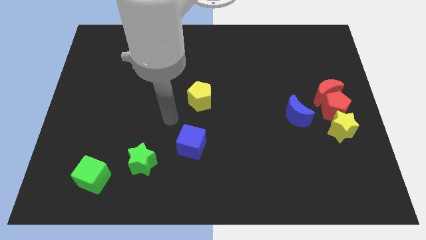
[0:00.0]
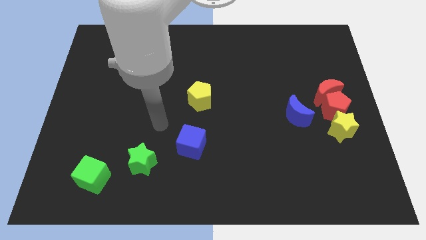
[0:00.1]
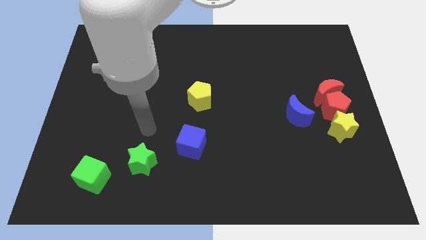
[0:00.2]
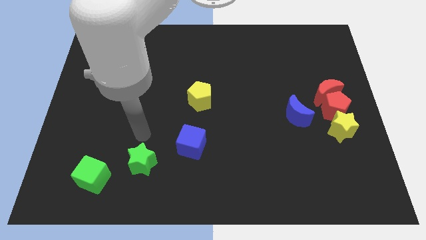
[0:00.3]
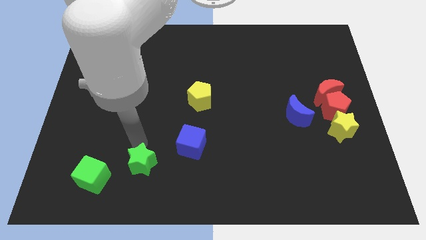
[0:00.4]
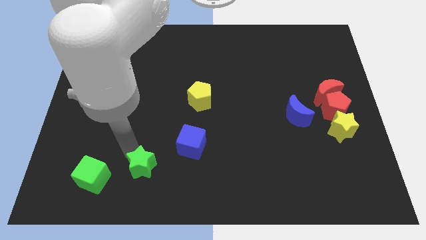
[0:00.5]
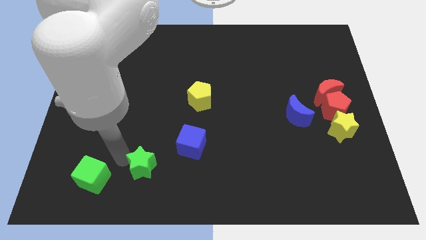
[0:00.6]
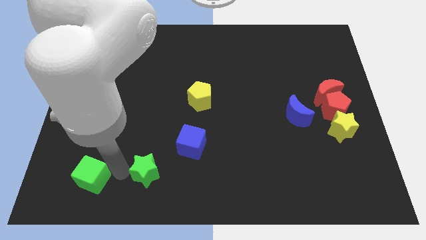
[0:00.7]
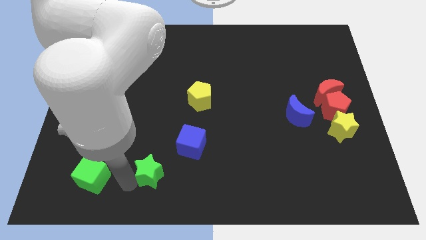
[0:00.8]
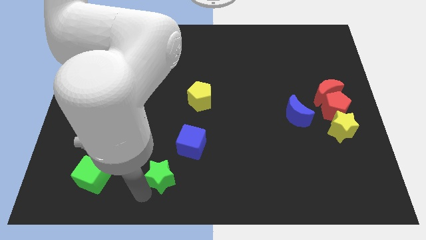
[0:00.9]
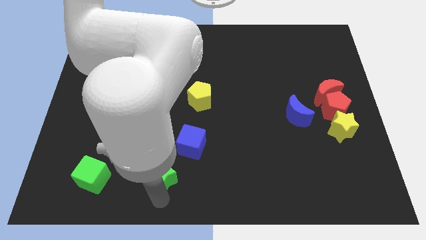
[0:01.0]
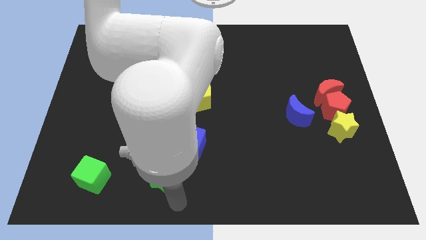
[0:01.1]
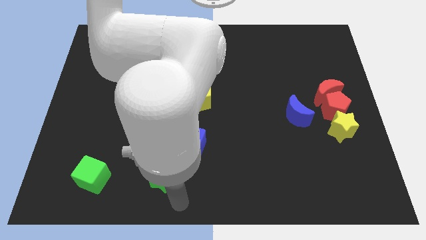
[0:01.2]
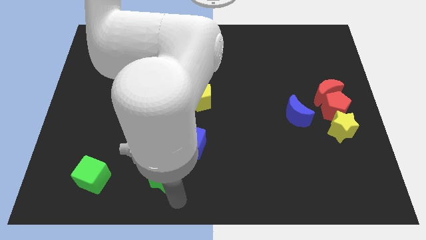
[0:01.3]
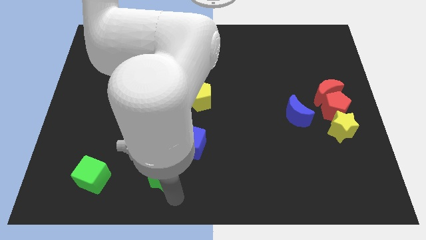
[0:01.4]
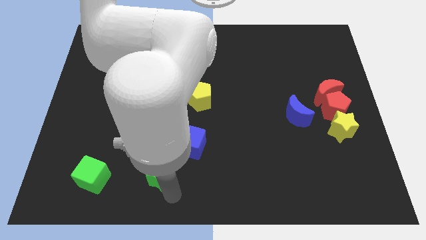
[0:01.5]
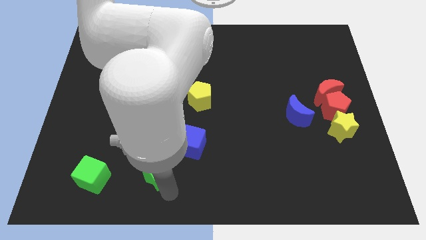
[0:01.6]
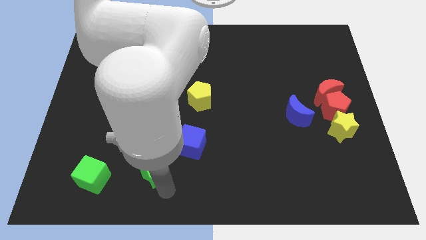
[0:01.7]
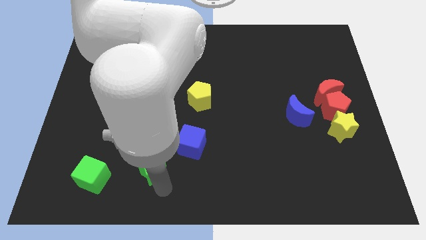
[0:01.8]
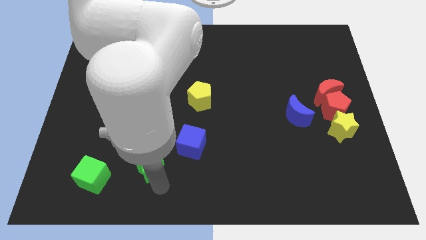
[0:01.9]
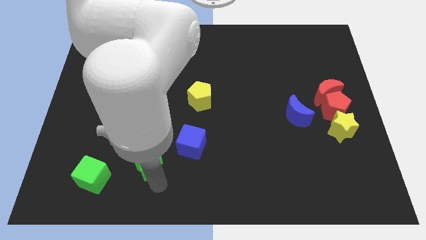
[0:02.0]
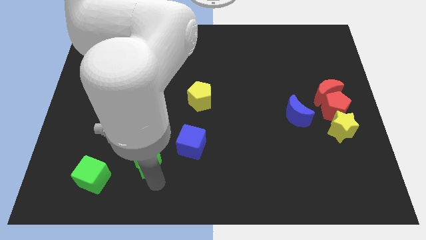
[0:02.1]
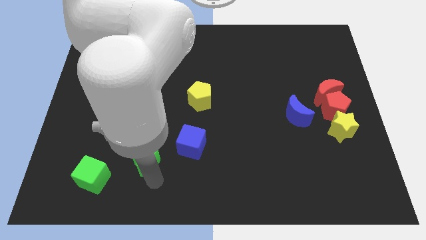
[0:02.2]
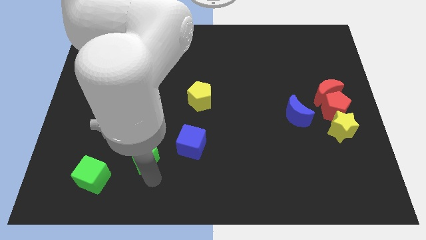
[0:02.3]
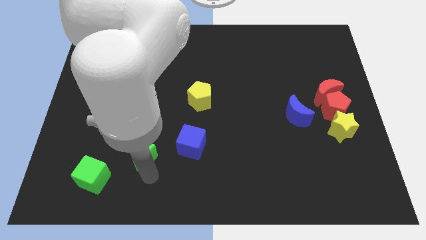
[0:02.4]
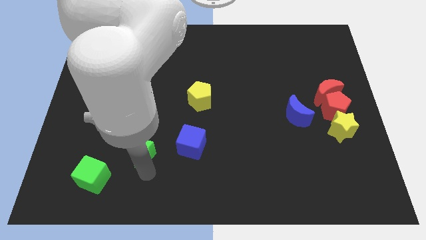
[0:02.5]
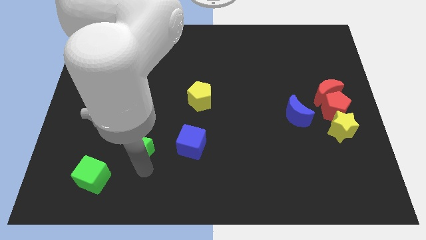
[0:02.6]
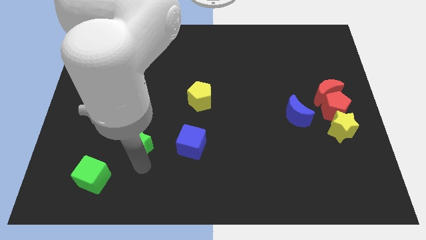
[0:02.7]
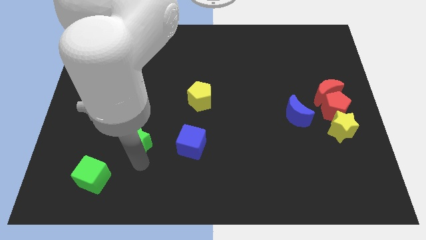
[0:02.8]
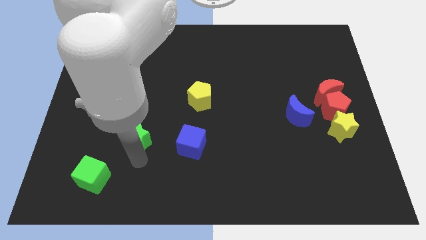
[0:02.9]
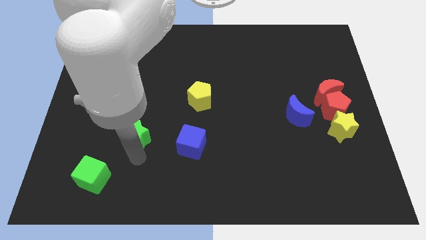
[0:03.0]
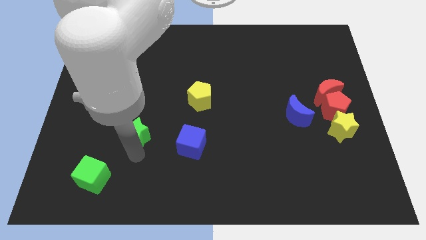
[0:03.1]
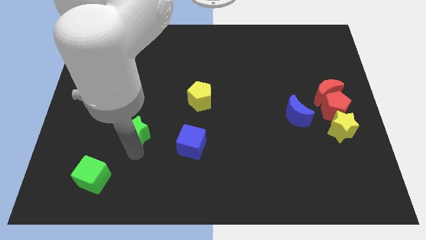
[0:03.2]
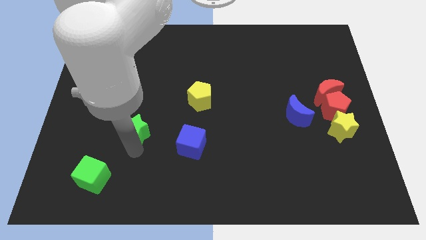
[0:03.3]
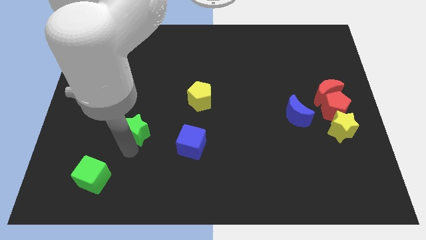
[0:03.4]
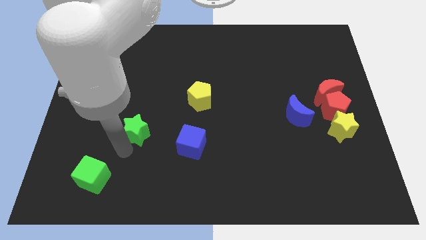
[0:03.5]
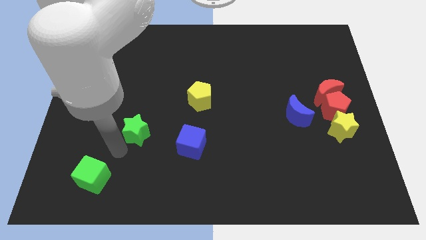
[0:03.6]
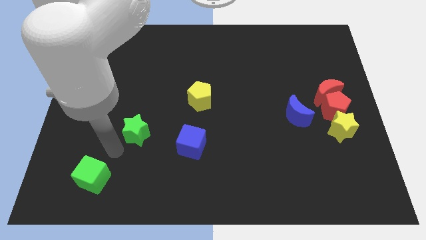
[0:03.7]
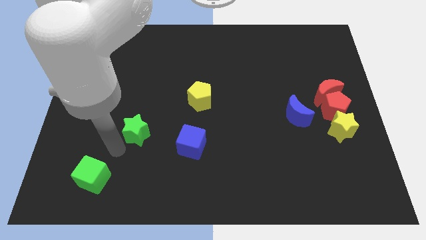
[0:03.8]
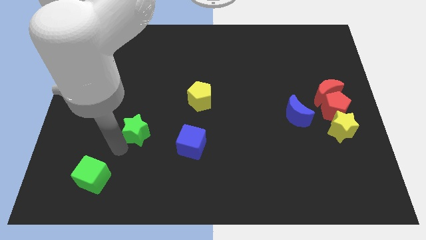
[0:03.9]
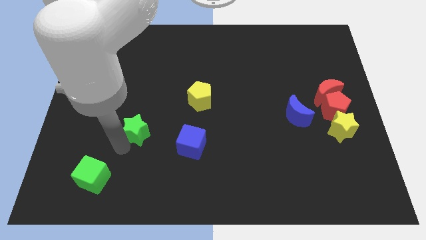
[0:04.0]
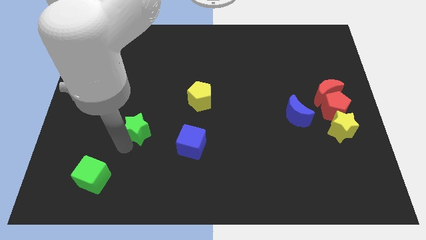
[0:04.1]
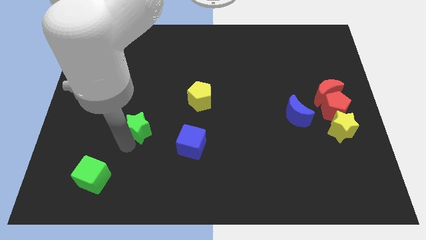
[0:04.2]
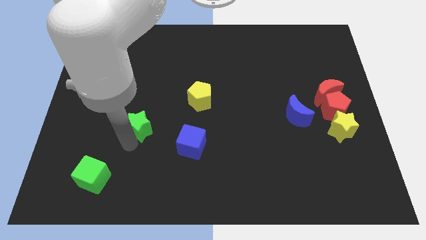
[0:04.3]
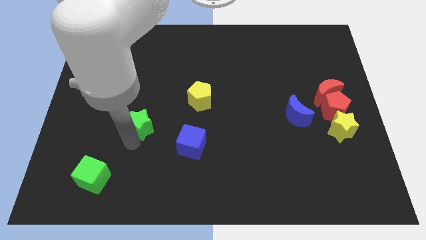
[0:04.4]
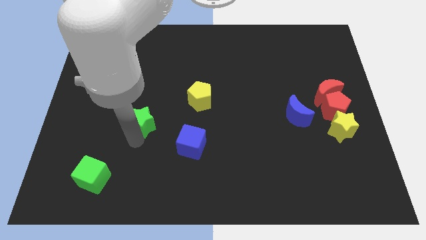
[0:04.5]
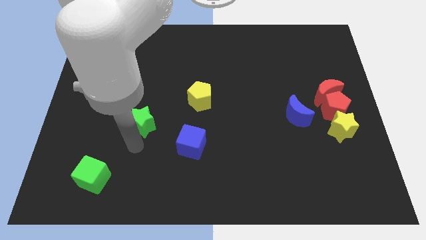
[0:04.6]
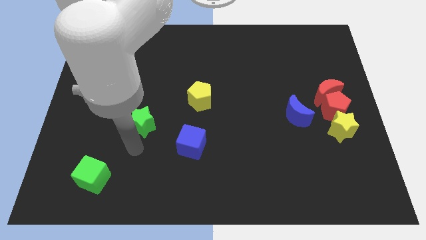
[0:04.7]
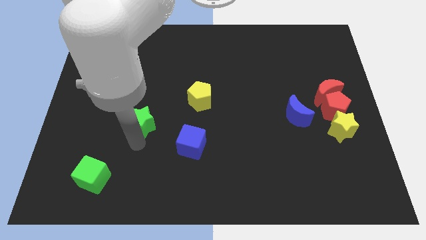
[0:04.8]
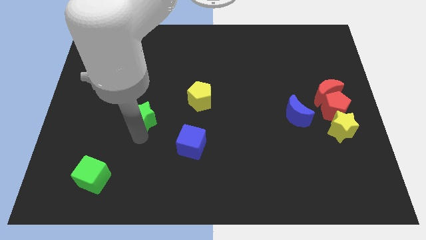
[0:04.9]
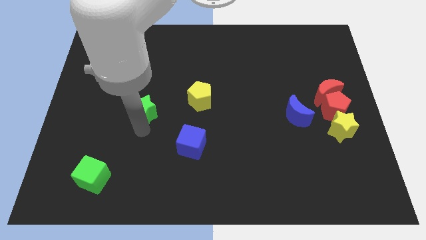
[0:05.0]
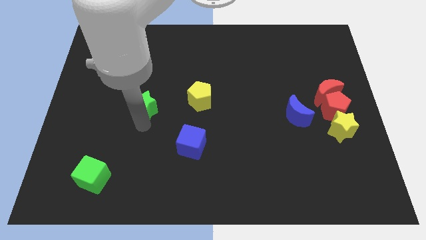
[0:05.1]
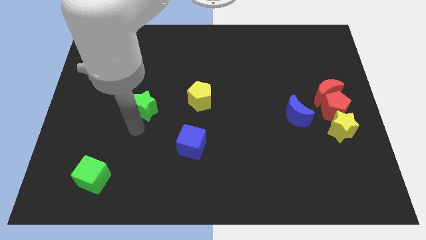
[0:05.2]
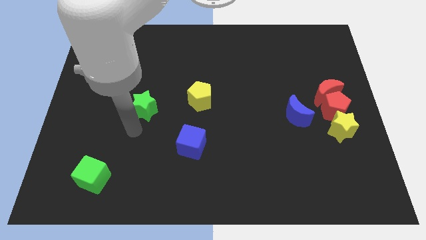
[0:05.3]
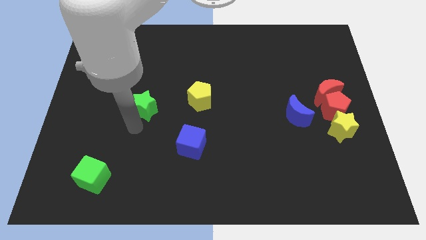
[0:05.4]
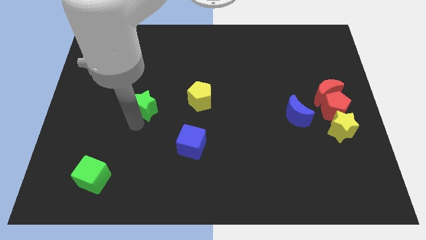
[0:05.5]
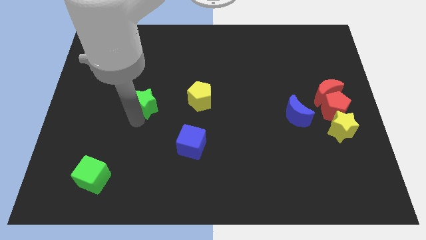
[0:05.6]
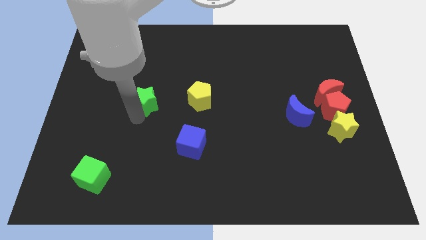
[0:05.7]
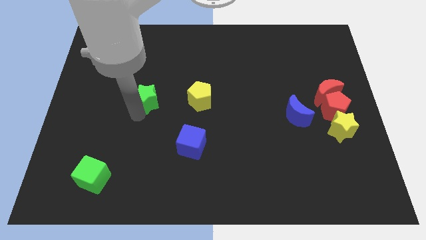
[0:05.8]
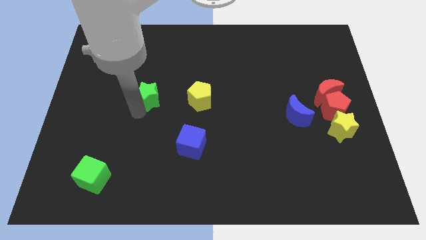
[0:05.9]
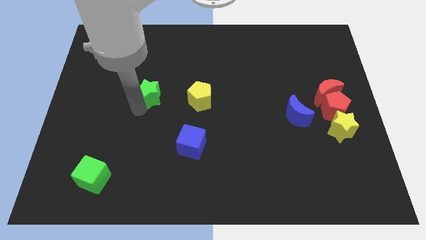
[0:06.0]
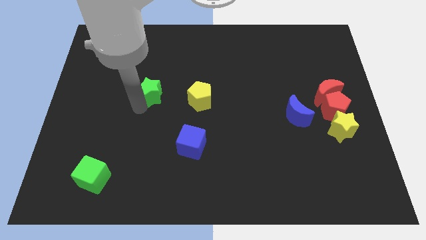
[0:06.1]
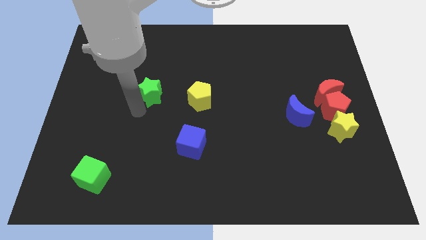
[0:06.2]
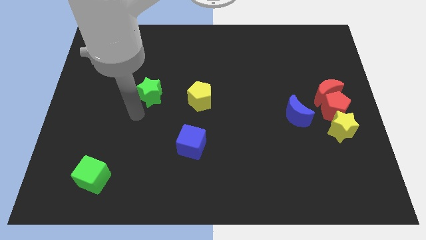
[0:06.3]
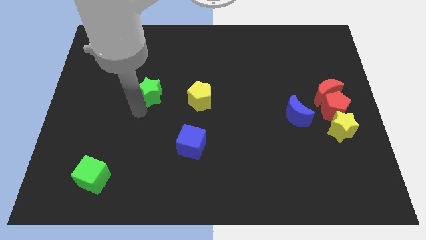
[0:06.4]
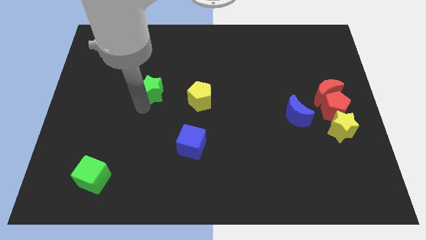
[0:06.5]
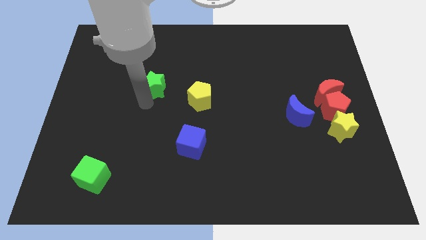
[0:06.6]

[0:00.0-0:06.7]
move the green star upwards

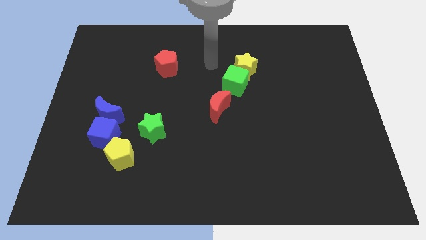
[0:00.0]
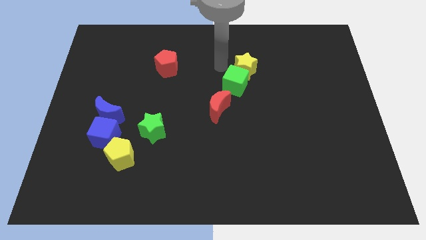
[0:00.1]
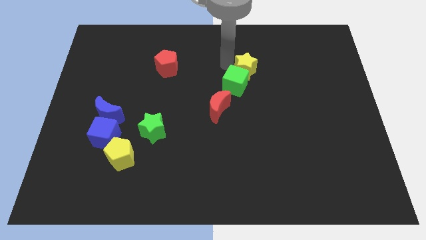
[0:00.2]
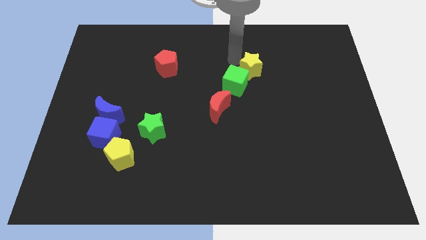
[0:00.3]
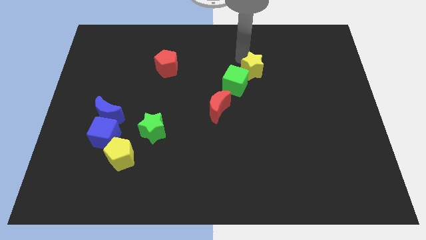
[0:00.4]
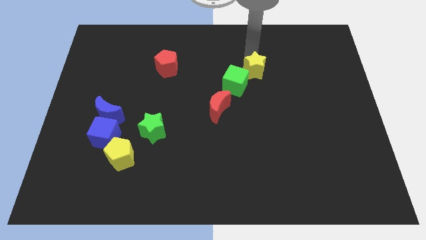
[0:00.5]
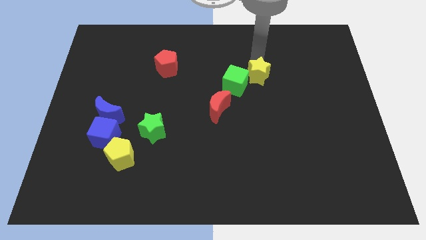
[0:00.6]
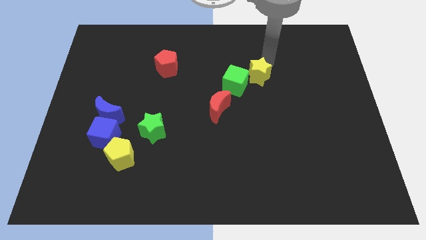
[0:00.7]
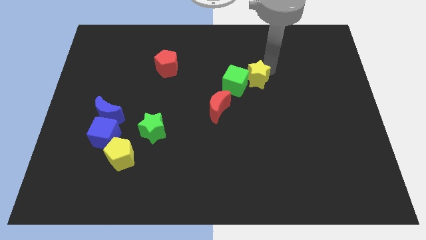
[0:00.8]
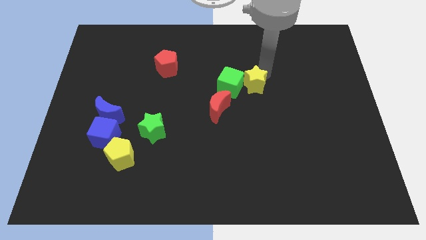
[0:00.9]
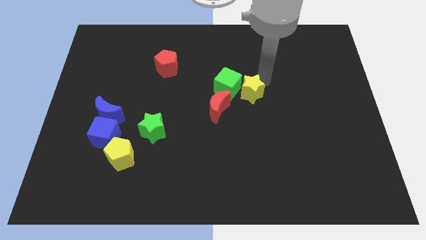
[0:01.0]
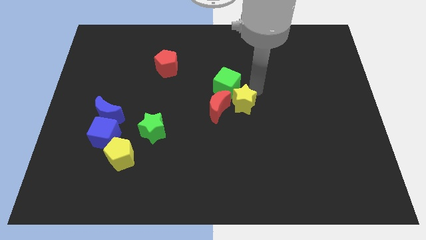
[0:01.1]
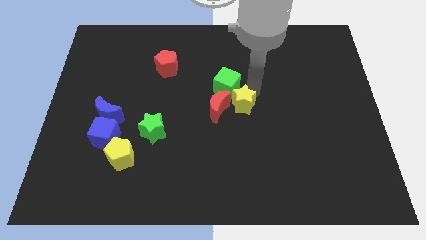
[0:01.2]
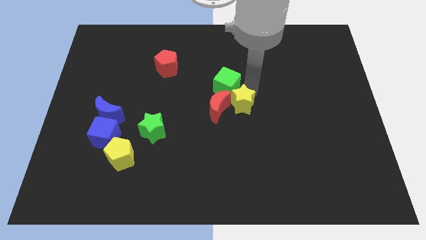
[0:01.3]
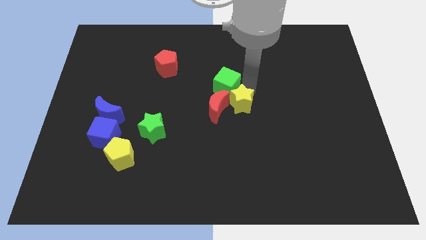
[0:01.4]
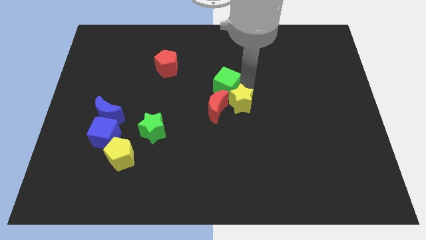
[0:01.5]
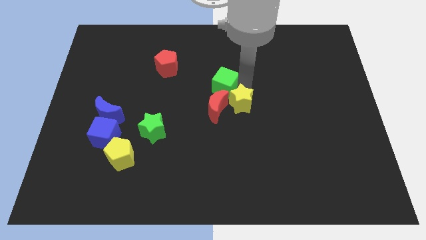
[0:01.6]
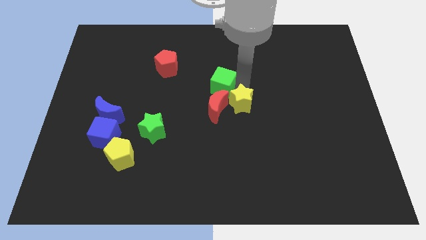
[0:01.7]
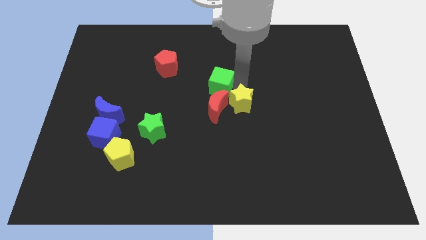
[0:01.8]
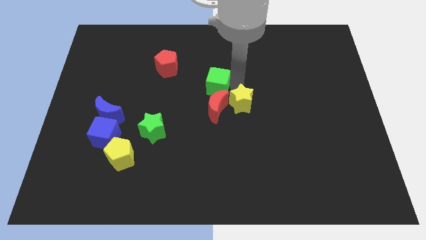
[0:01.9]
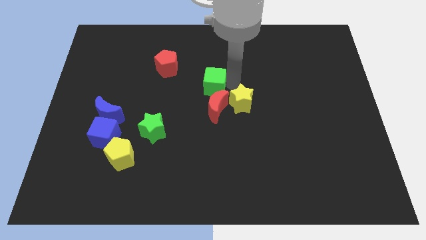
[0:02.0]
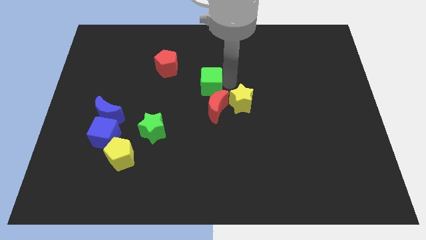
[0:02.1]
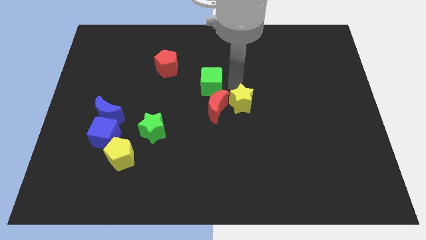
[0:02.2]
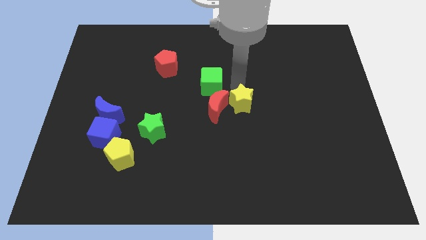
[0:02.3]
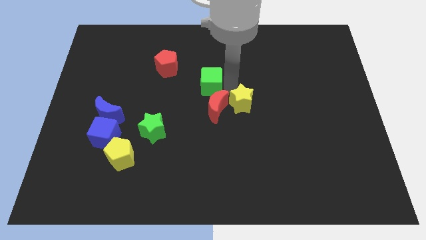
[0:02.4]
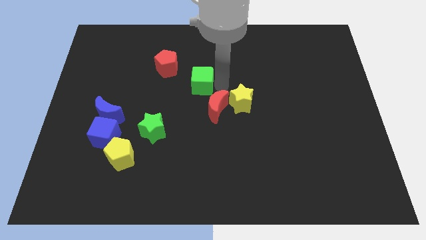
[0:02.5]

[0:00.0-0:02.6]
move the green cube left a little bit
